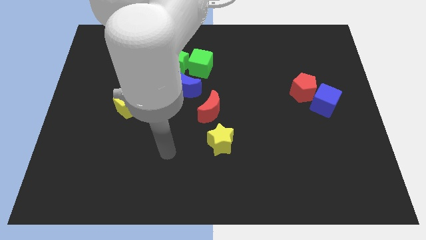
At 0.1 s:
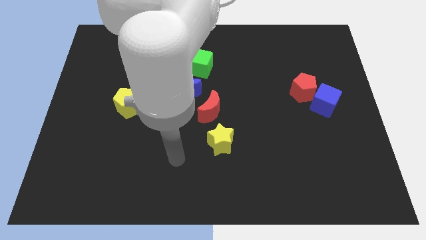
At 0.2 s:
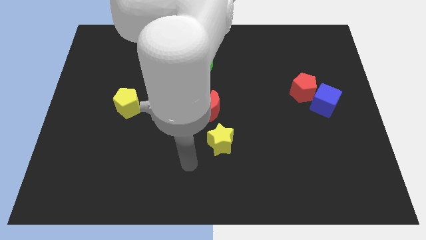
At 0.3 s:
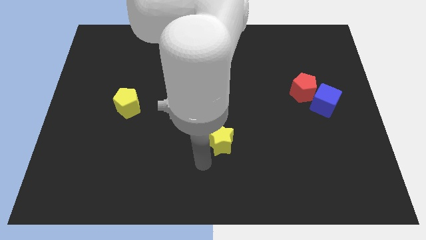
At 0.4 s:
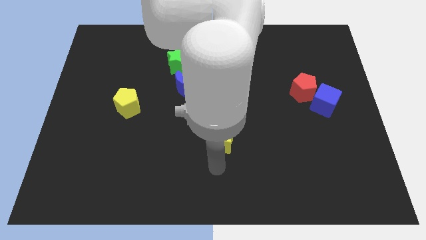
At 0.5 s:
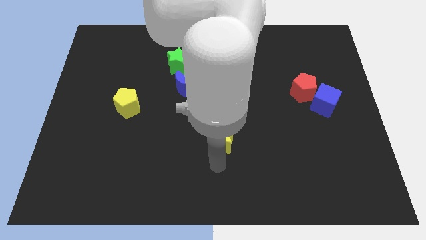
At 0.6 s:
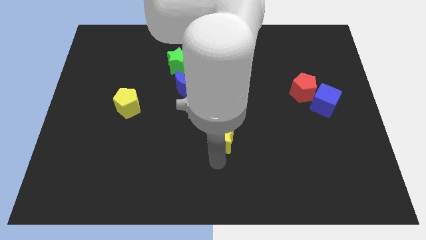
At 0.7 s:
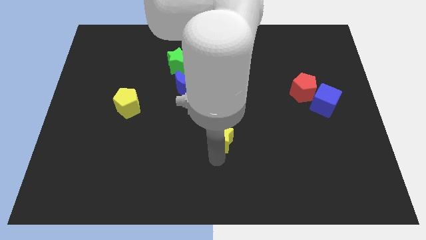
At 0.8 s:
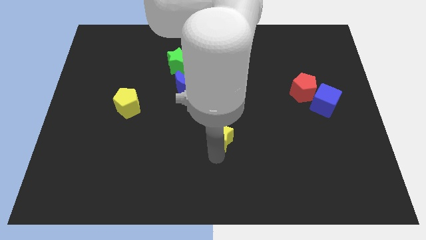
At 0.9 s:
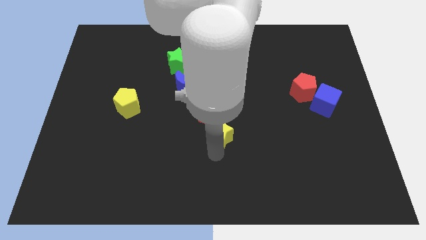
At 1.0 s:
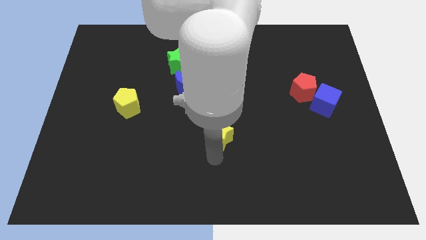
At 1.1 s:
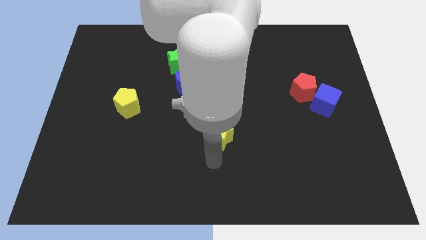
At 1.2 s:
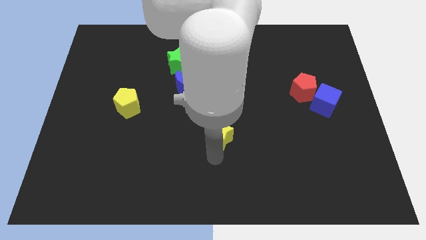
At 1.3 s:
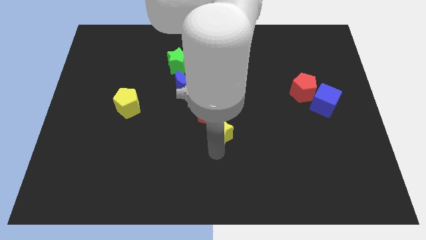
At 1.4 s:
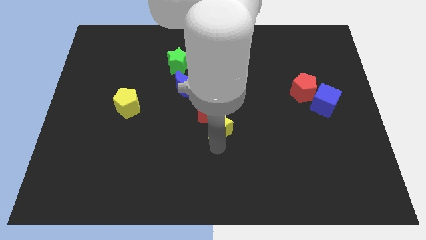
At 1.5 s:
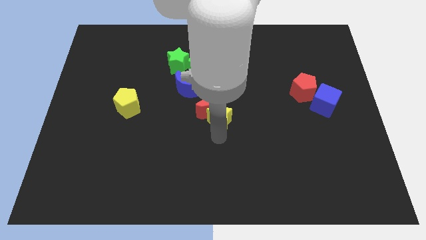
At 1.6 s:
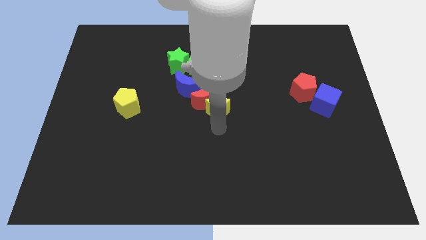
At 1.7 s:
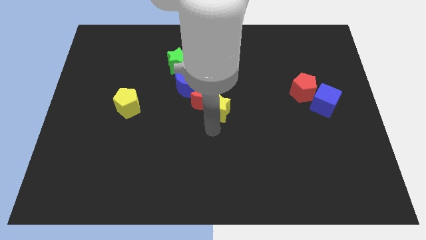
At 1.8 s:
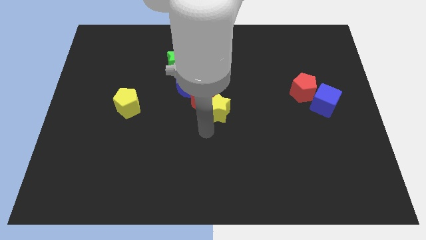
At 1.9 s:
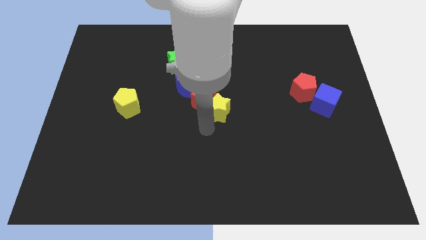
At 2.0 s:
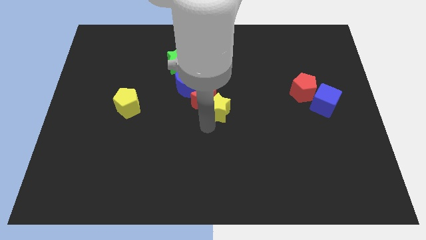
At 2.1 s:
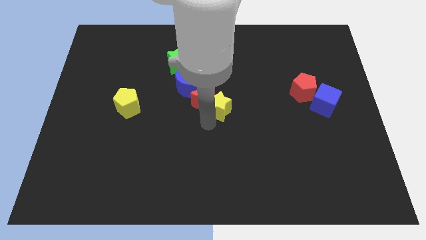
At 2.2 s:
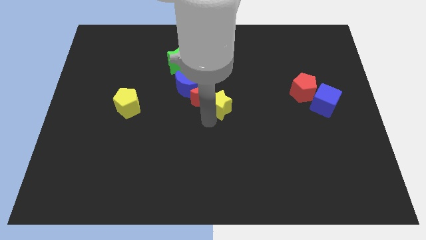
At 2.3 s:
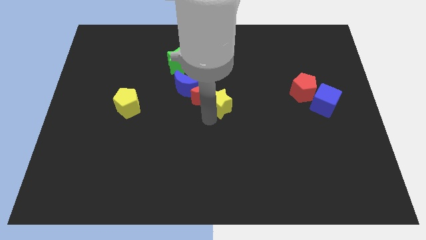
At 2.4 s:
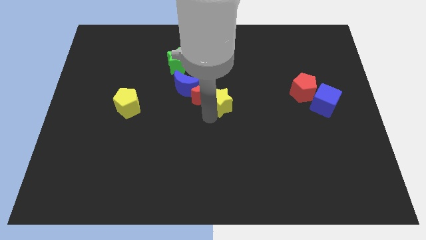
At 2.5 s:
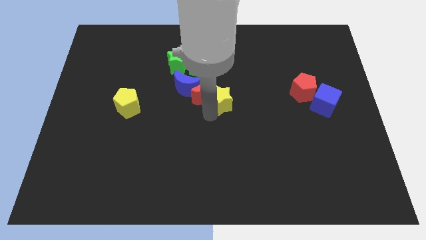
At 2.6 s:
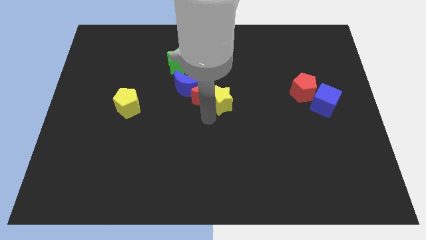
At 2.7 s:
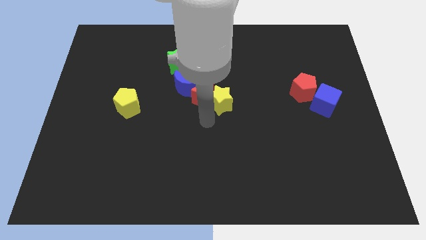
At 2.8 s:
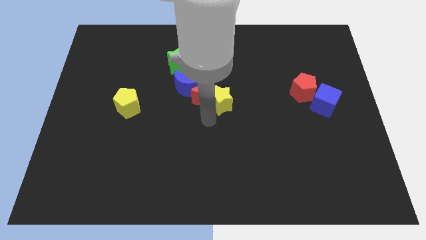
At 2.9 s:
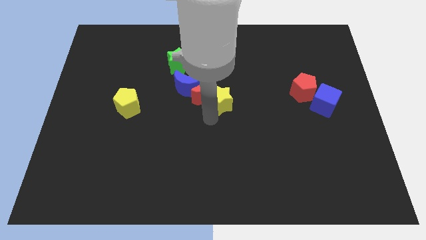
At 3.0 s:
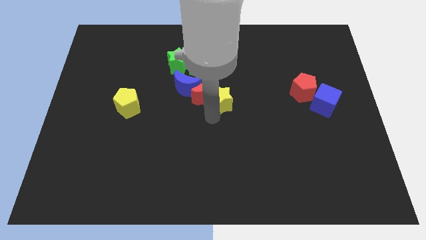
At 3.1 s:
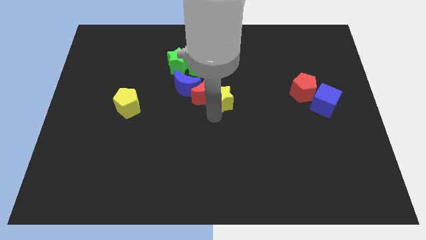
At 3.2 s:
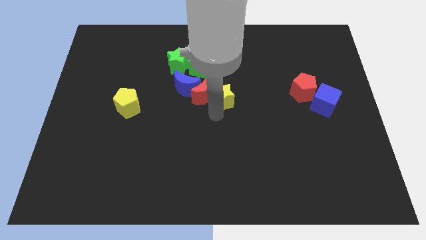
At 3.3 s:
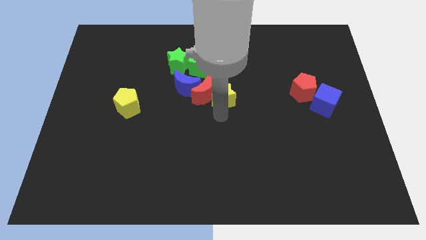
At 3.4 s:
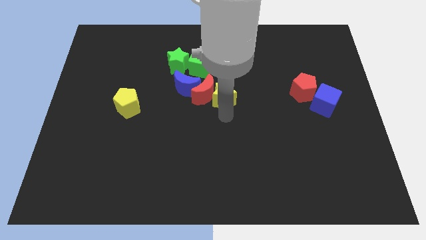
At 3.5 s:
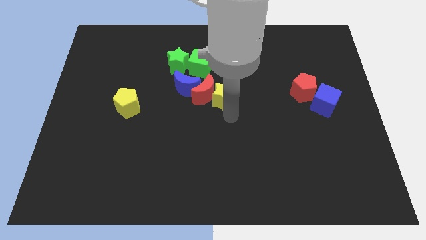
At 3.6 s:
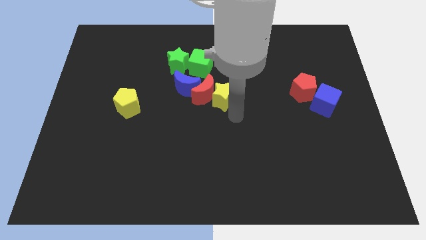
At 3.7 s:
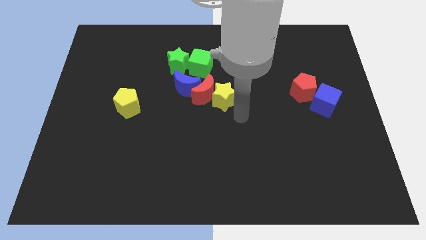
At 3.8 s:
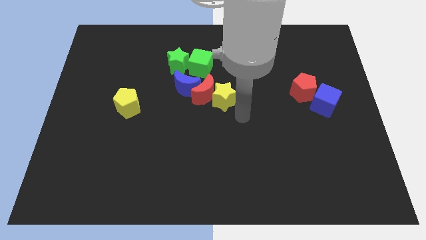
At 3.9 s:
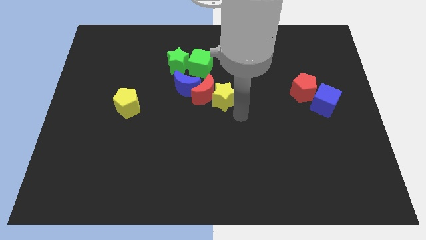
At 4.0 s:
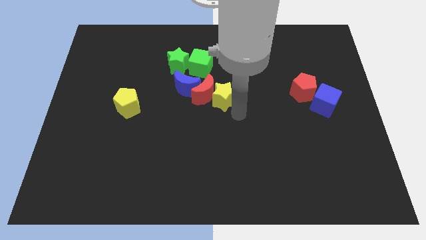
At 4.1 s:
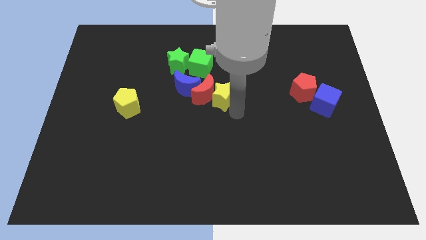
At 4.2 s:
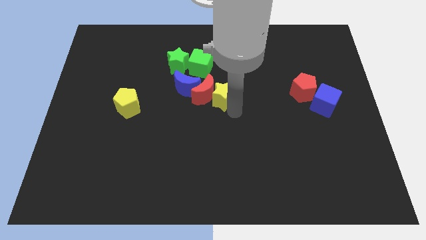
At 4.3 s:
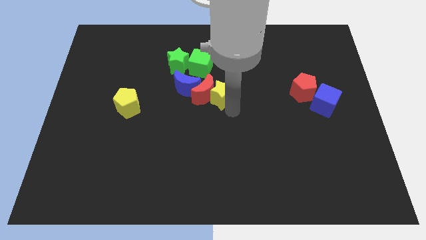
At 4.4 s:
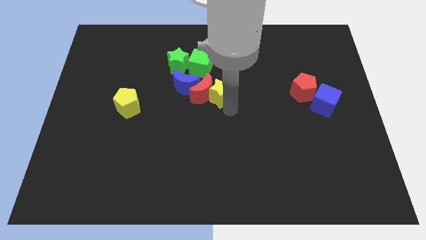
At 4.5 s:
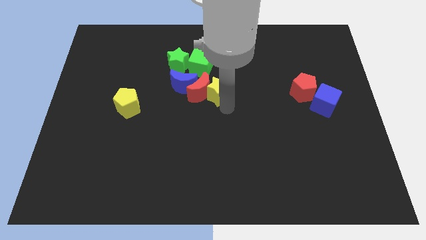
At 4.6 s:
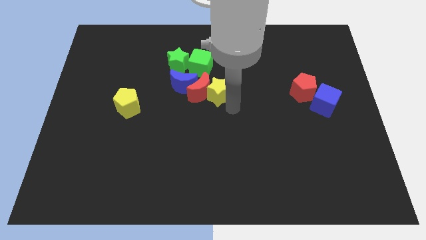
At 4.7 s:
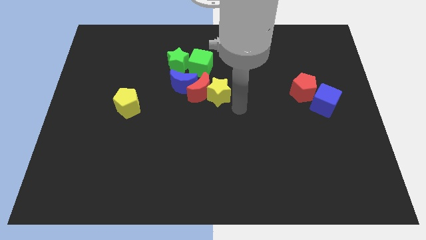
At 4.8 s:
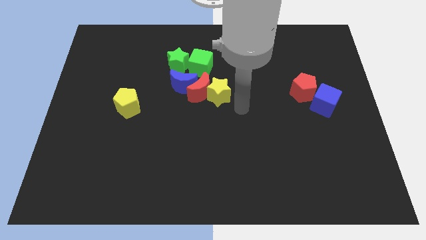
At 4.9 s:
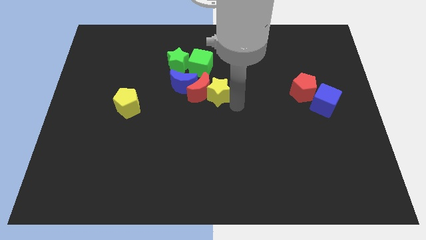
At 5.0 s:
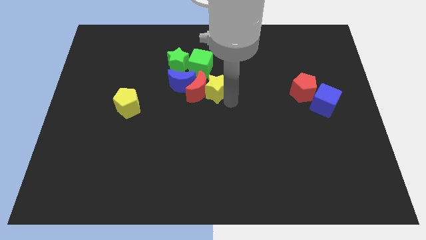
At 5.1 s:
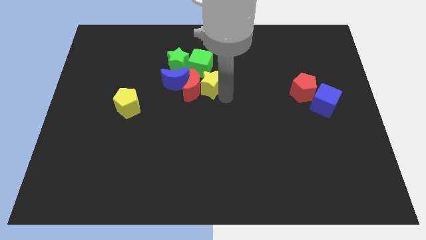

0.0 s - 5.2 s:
put the yellow star diagonally down and to the right of the green star

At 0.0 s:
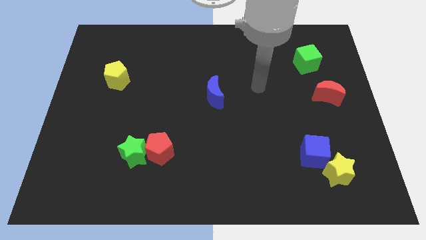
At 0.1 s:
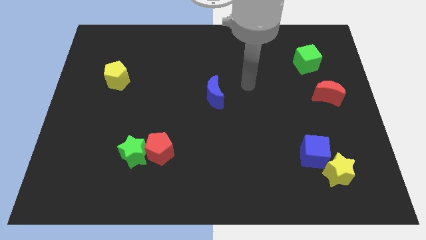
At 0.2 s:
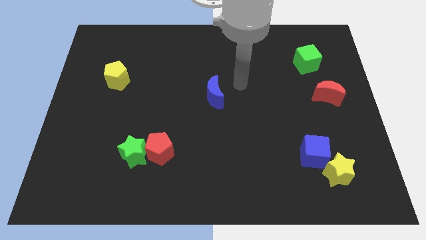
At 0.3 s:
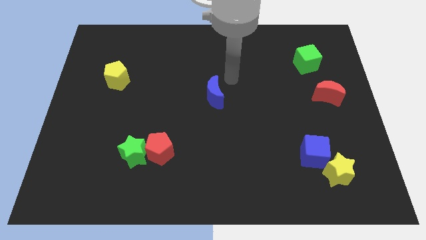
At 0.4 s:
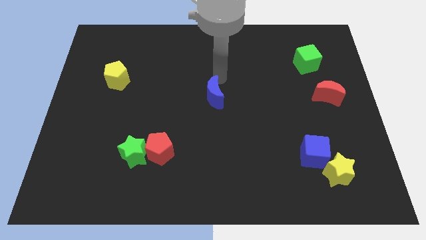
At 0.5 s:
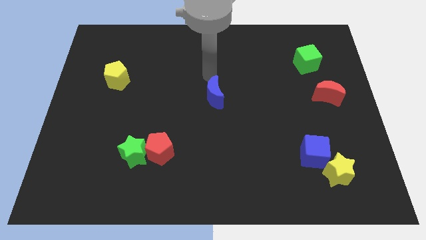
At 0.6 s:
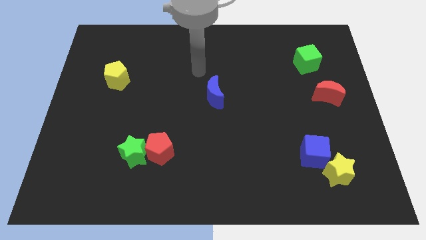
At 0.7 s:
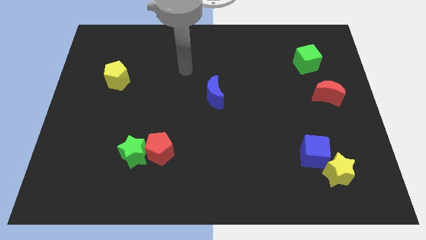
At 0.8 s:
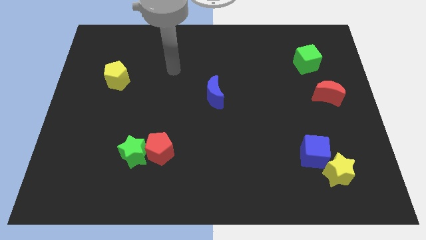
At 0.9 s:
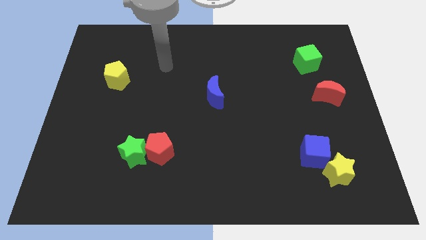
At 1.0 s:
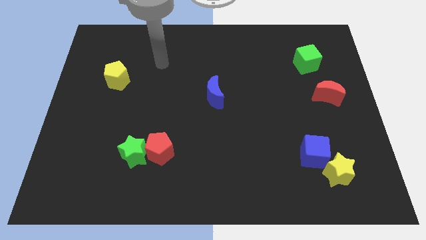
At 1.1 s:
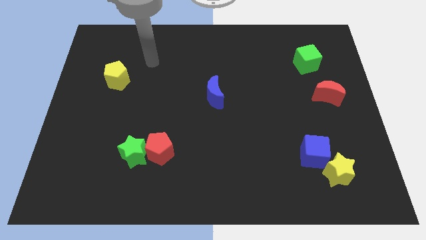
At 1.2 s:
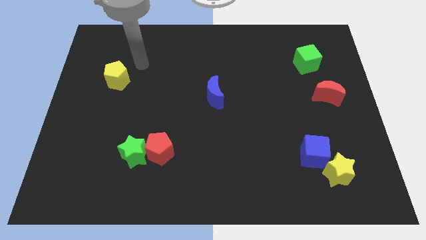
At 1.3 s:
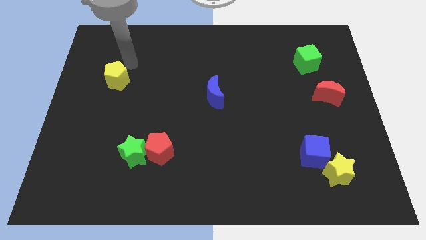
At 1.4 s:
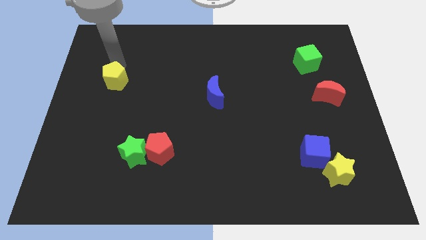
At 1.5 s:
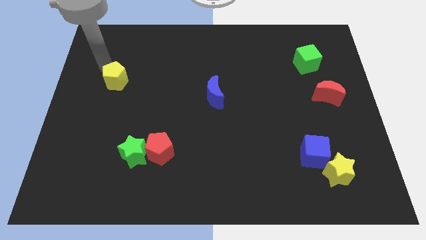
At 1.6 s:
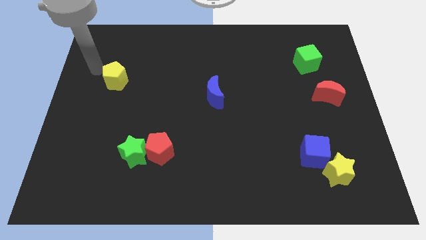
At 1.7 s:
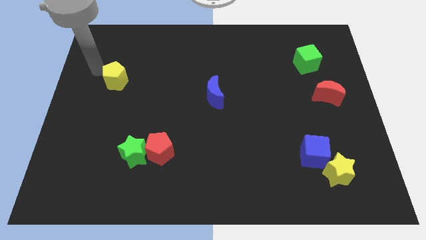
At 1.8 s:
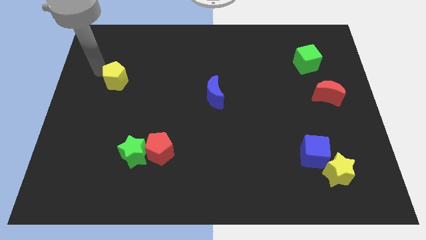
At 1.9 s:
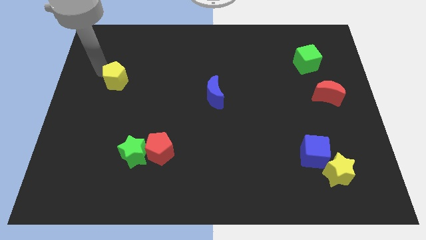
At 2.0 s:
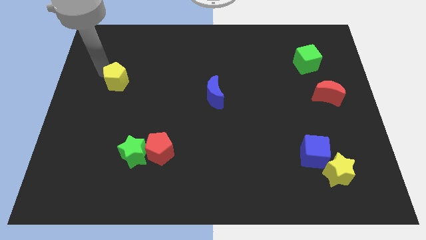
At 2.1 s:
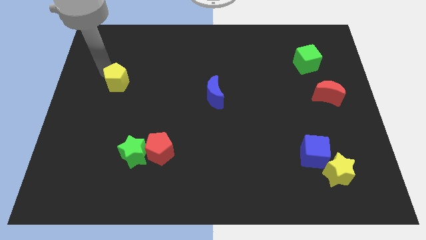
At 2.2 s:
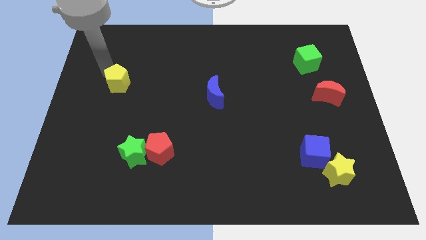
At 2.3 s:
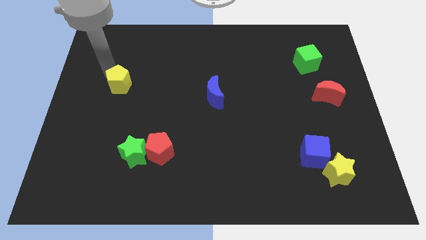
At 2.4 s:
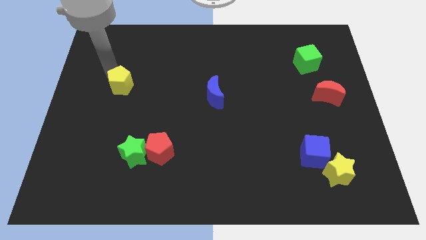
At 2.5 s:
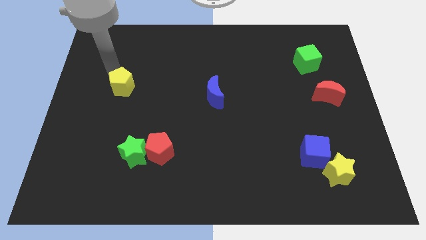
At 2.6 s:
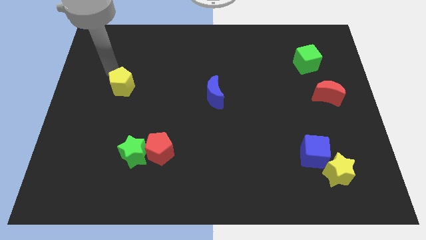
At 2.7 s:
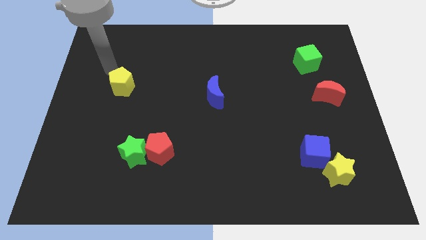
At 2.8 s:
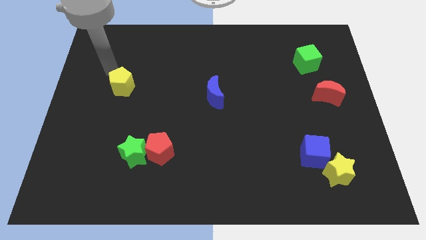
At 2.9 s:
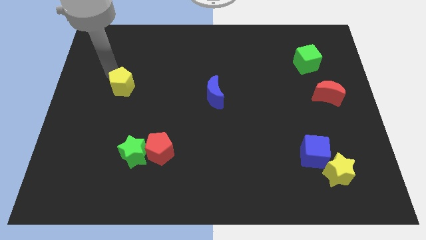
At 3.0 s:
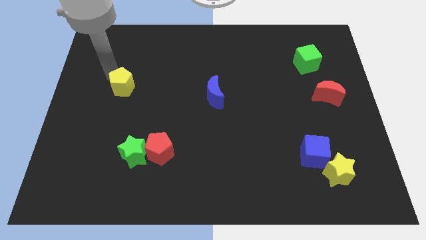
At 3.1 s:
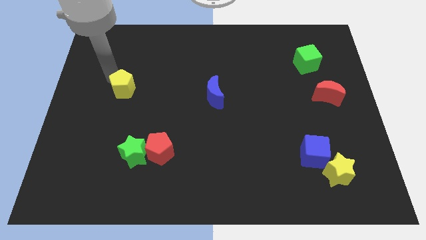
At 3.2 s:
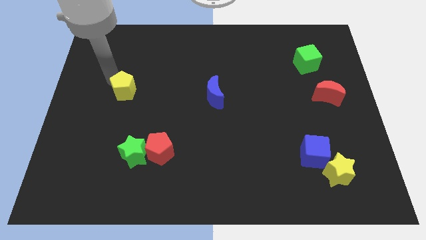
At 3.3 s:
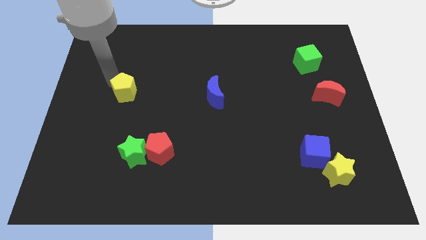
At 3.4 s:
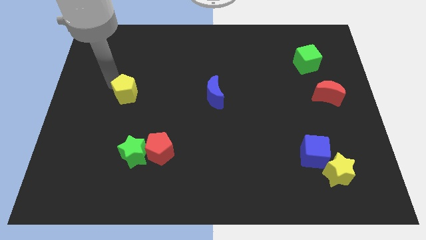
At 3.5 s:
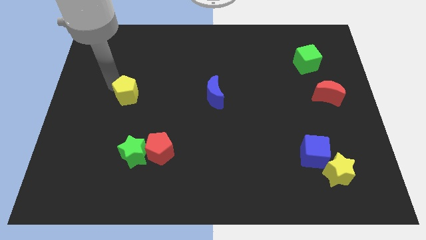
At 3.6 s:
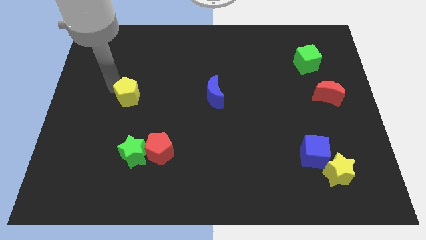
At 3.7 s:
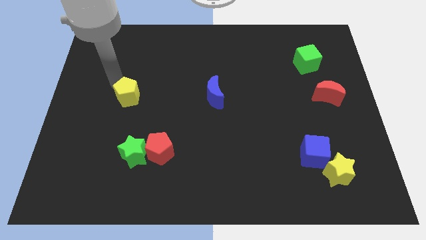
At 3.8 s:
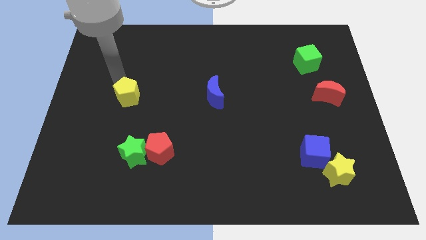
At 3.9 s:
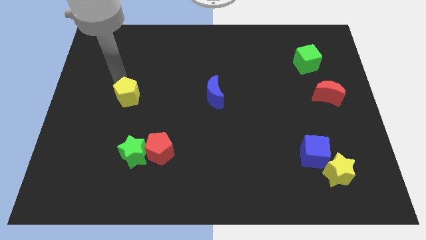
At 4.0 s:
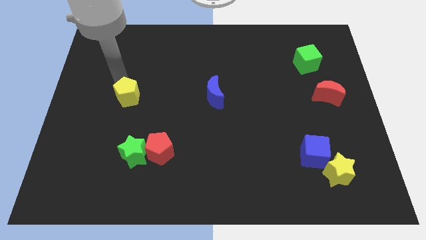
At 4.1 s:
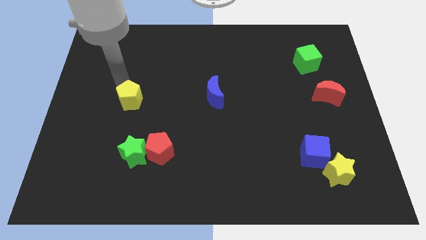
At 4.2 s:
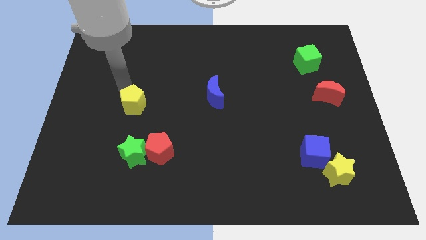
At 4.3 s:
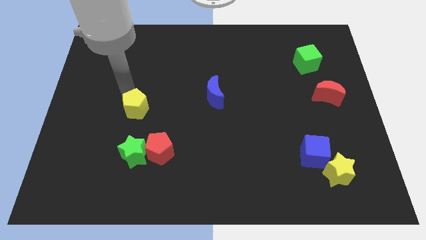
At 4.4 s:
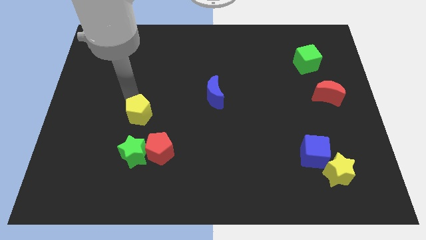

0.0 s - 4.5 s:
push the yellow pentagon diagonally up and to the left of the red pentagon
